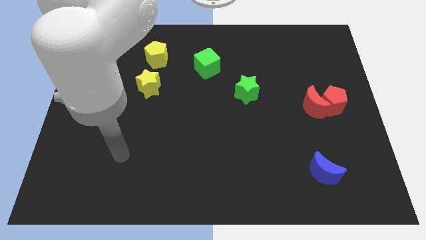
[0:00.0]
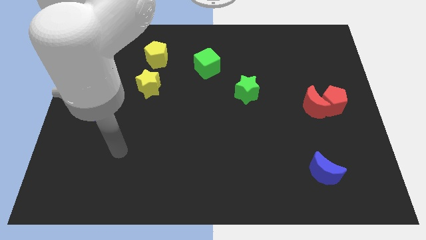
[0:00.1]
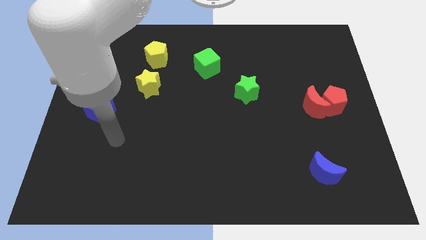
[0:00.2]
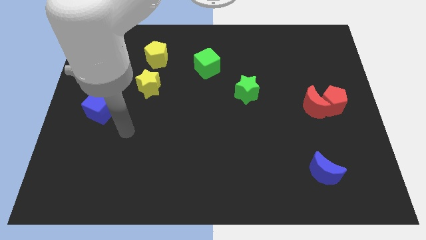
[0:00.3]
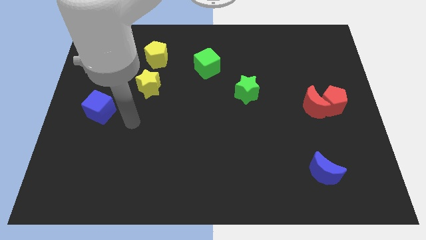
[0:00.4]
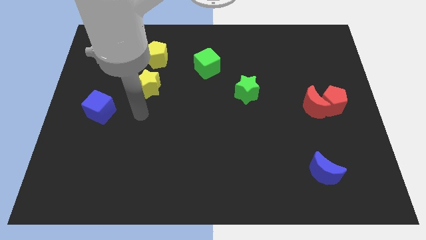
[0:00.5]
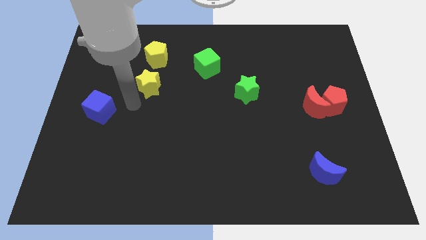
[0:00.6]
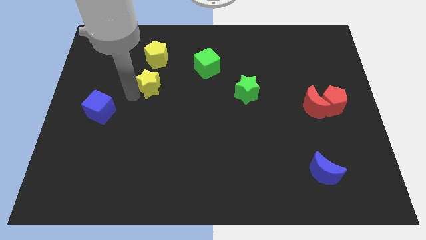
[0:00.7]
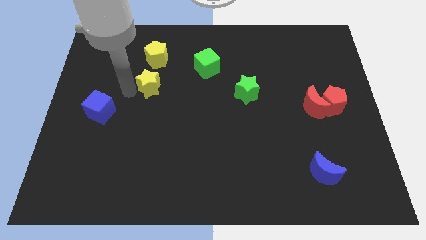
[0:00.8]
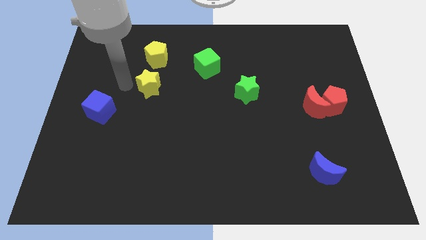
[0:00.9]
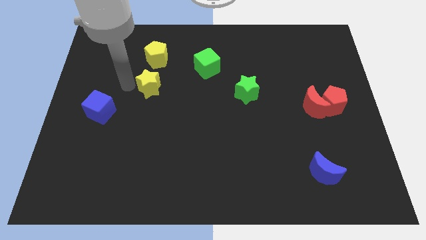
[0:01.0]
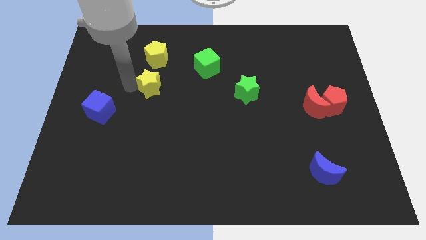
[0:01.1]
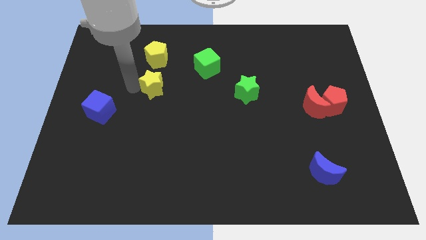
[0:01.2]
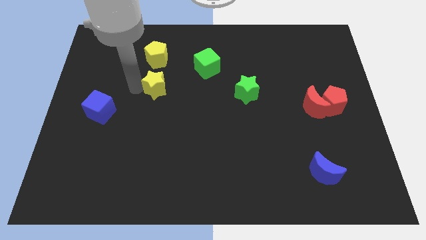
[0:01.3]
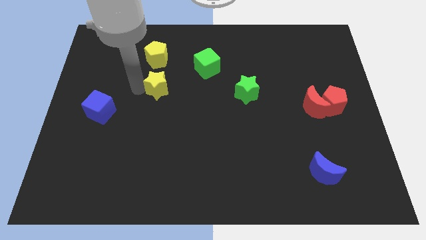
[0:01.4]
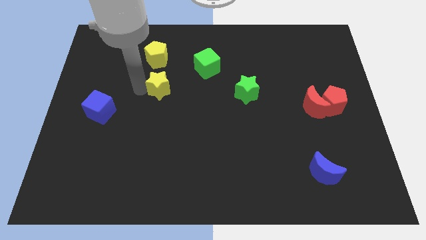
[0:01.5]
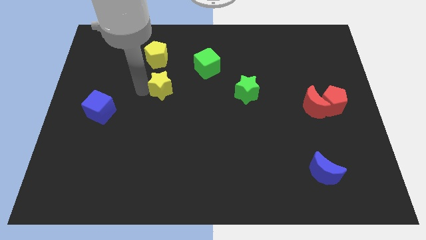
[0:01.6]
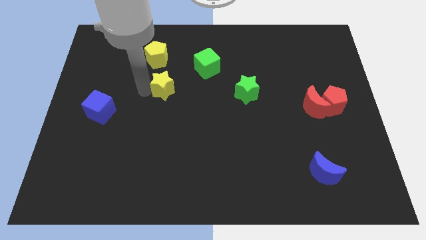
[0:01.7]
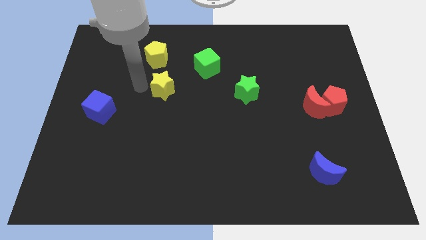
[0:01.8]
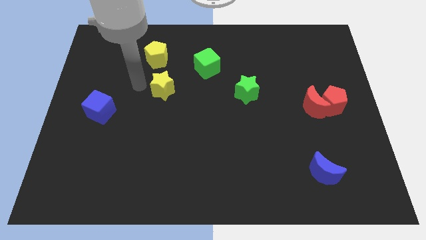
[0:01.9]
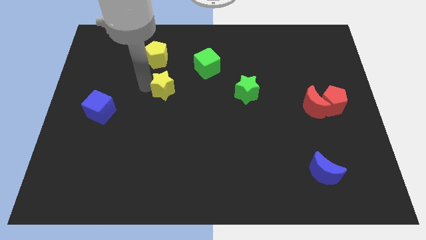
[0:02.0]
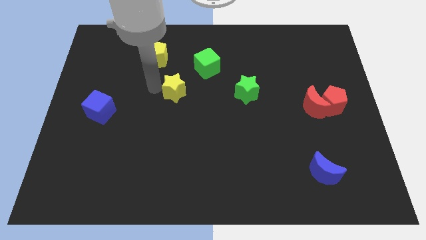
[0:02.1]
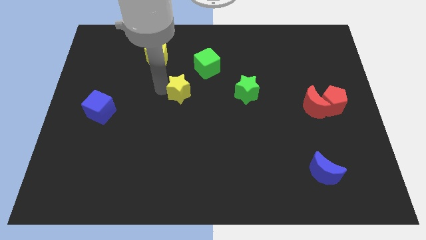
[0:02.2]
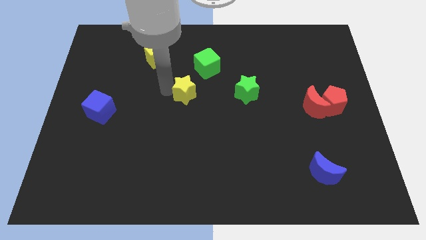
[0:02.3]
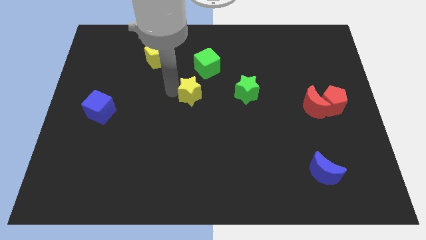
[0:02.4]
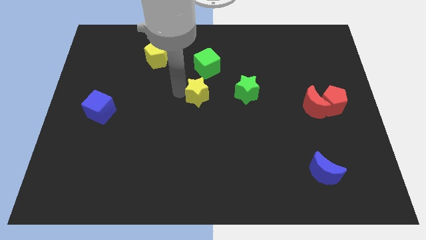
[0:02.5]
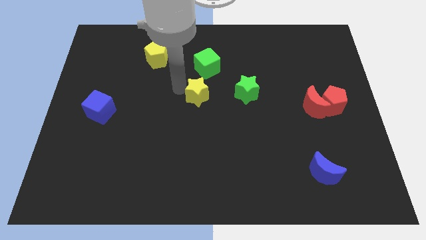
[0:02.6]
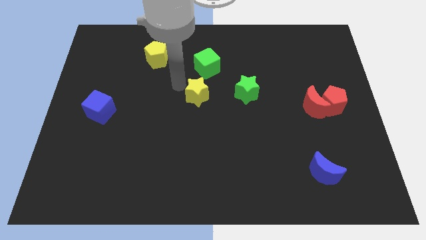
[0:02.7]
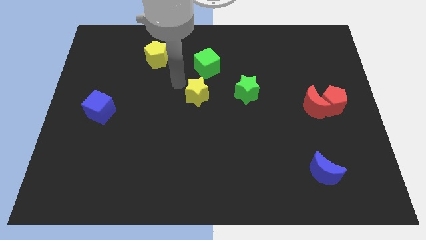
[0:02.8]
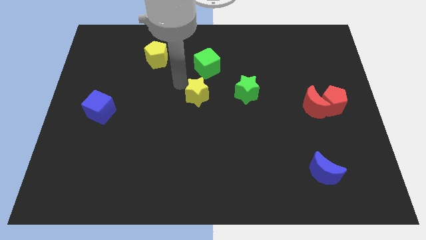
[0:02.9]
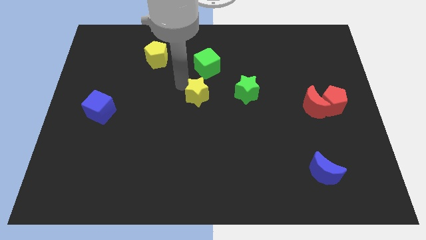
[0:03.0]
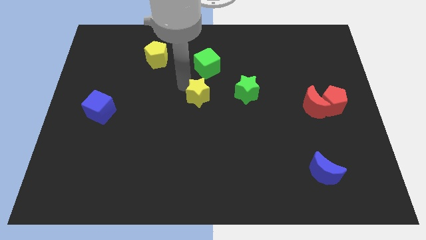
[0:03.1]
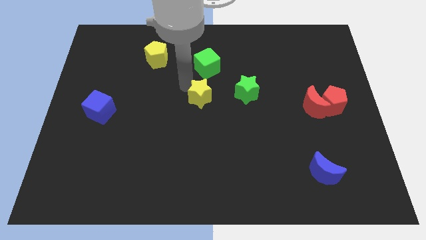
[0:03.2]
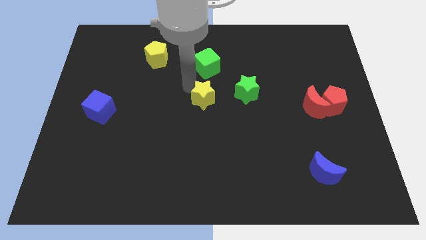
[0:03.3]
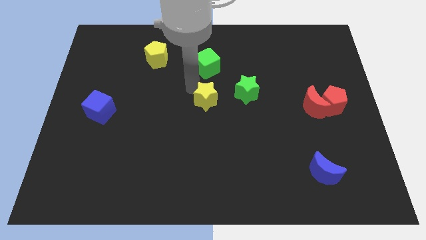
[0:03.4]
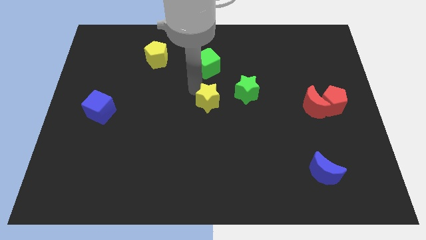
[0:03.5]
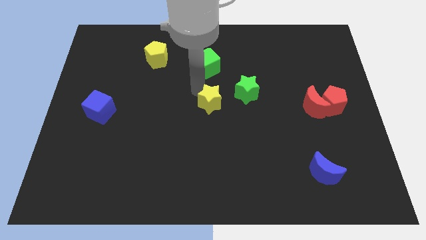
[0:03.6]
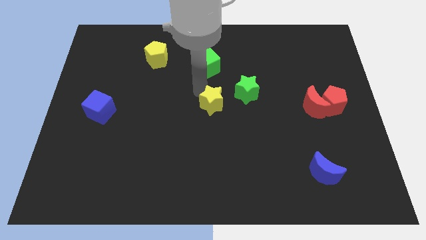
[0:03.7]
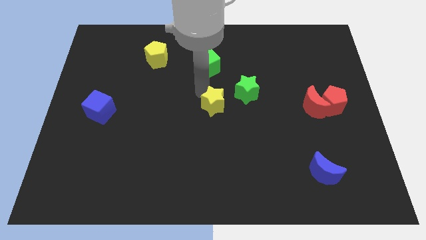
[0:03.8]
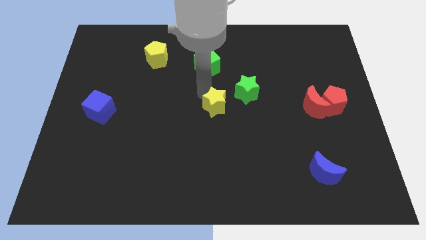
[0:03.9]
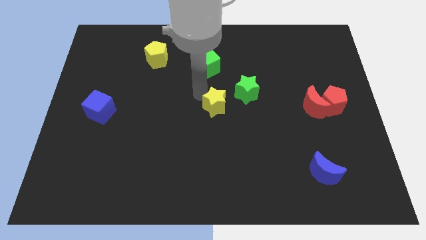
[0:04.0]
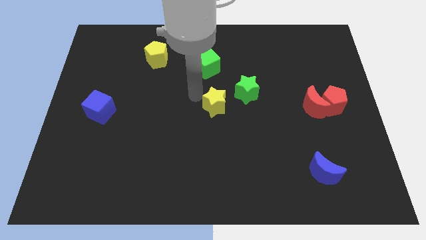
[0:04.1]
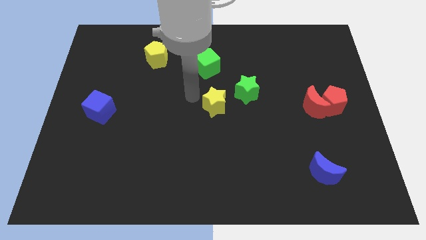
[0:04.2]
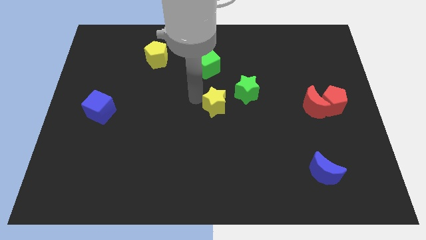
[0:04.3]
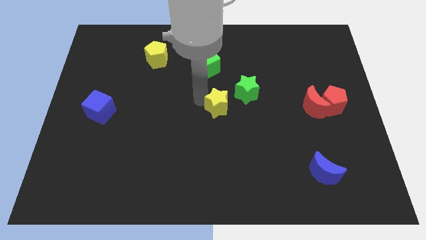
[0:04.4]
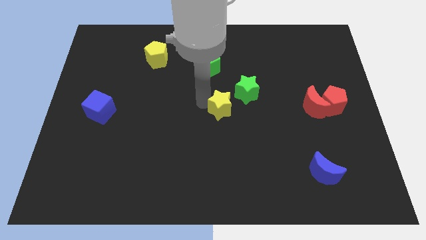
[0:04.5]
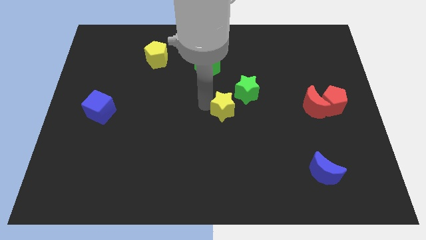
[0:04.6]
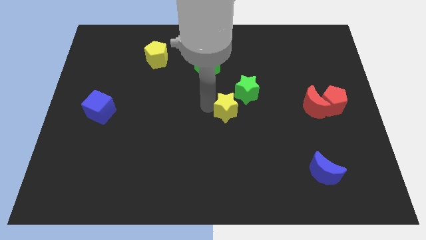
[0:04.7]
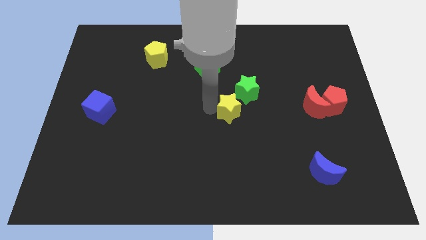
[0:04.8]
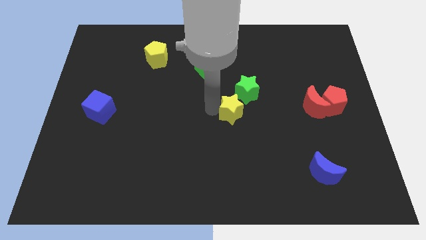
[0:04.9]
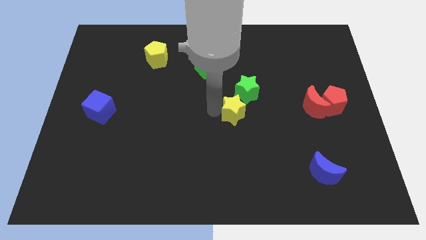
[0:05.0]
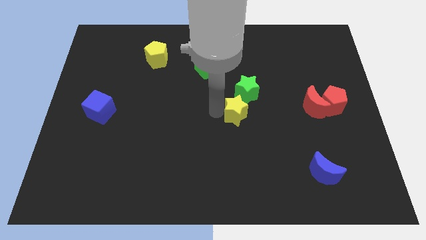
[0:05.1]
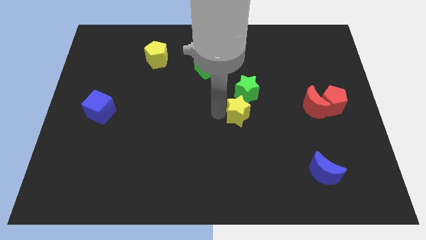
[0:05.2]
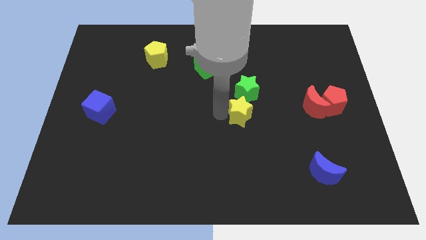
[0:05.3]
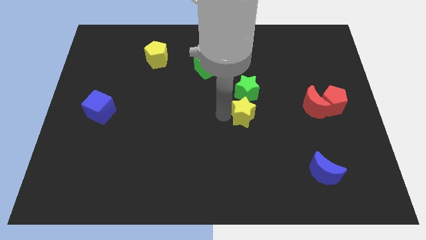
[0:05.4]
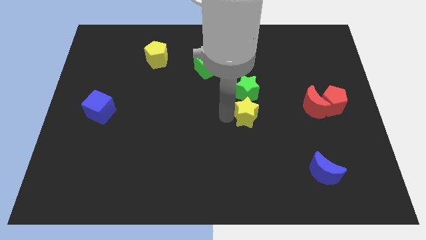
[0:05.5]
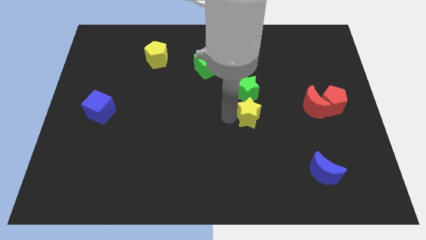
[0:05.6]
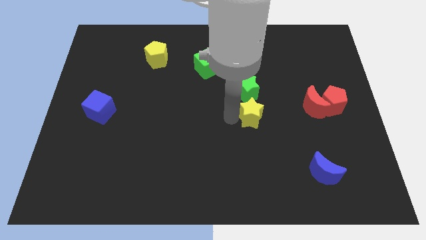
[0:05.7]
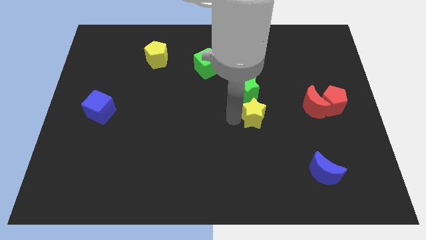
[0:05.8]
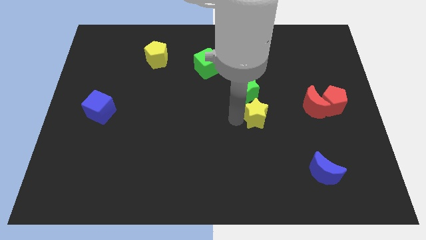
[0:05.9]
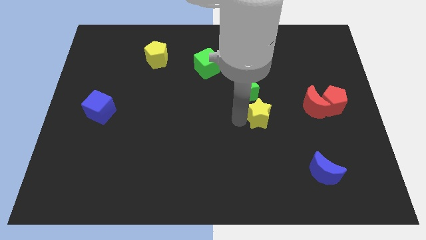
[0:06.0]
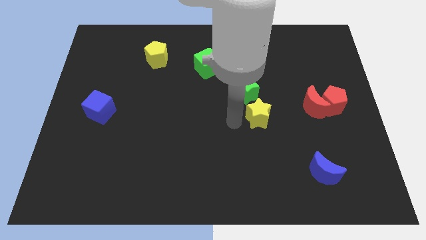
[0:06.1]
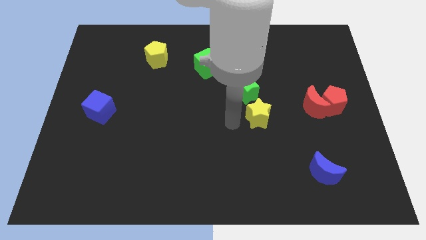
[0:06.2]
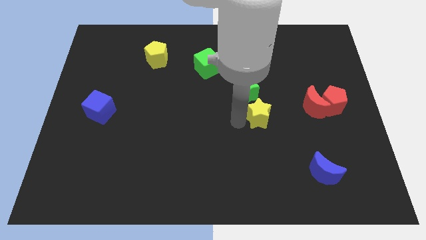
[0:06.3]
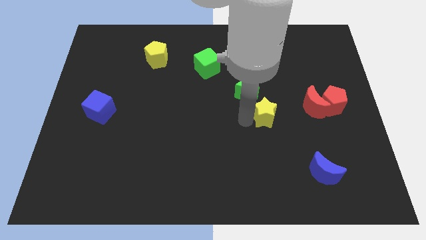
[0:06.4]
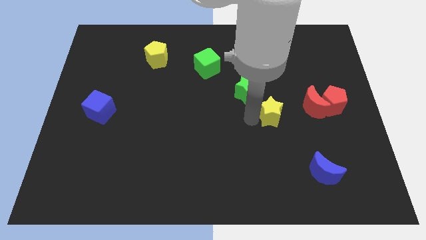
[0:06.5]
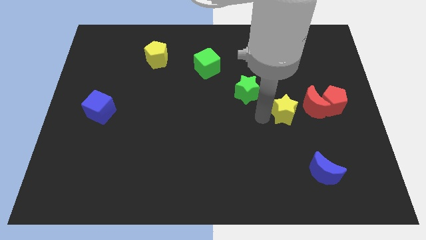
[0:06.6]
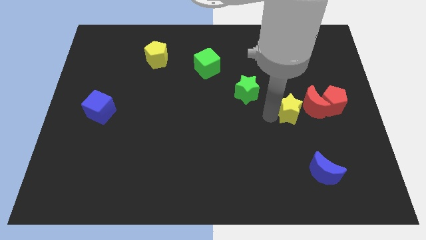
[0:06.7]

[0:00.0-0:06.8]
slide the yellow star close to the red moon

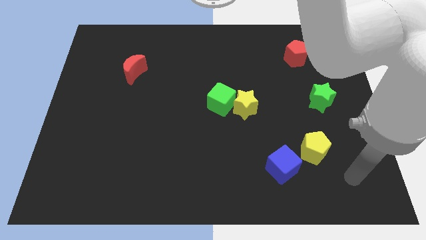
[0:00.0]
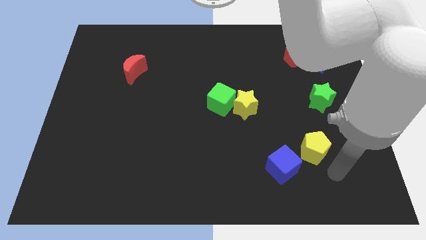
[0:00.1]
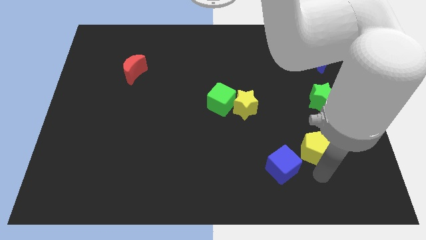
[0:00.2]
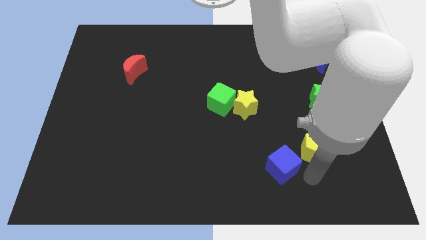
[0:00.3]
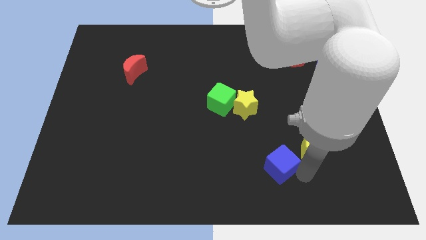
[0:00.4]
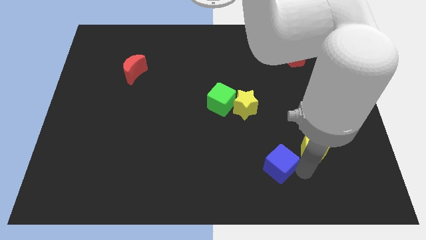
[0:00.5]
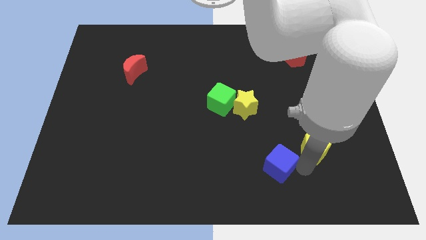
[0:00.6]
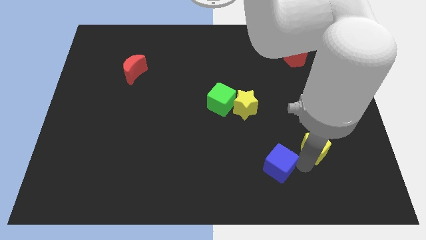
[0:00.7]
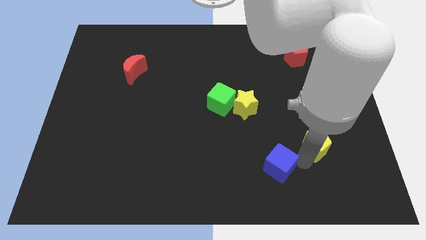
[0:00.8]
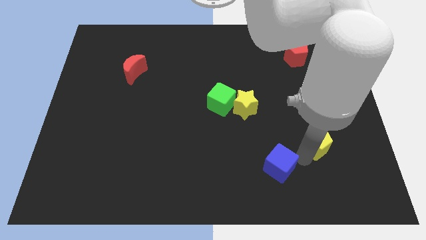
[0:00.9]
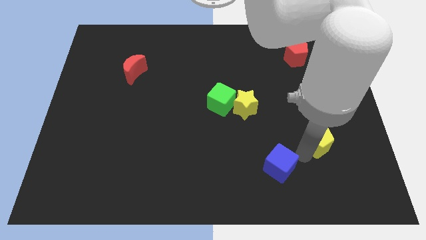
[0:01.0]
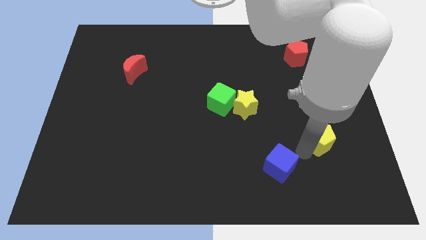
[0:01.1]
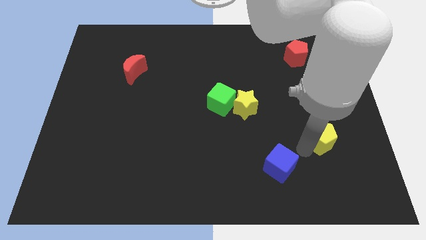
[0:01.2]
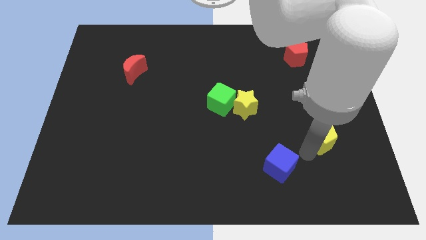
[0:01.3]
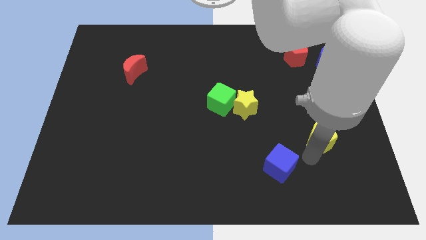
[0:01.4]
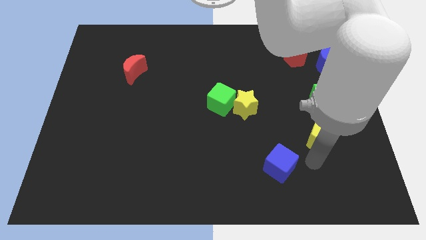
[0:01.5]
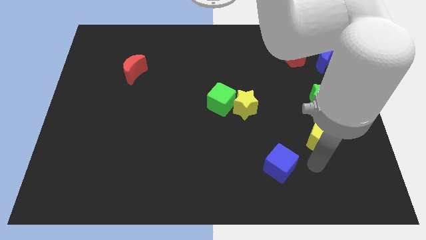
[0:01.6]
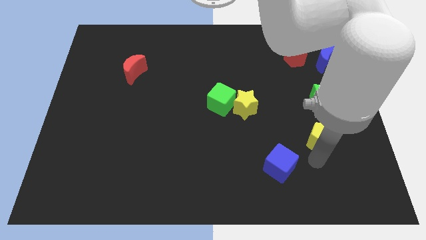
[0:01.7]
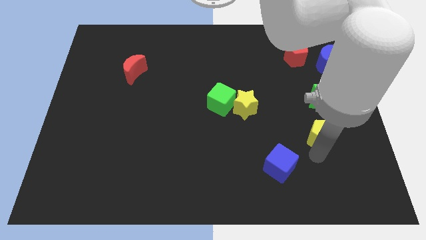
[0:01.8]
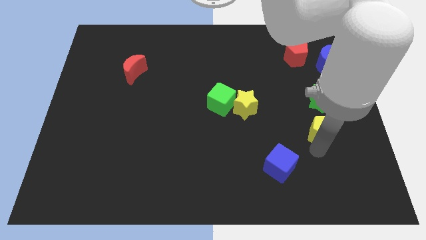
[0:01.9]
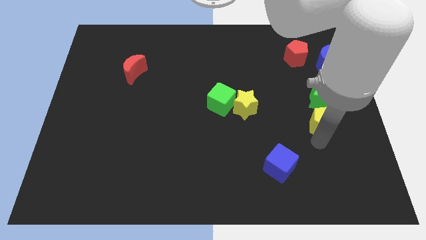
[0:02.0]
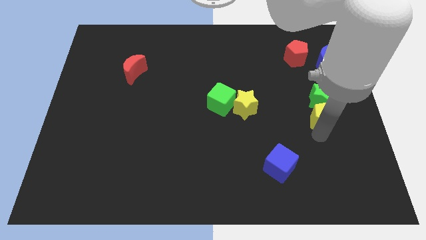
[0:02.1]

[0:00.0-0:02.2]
slide the yellow pentagon to the green star
